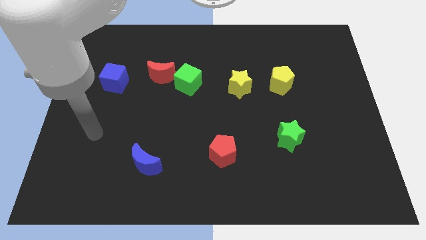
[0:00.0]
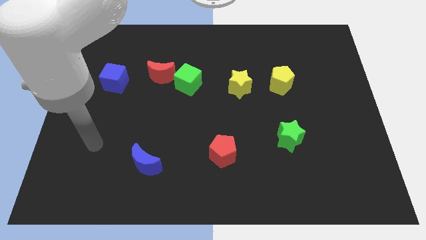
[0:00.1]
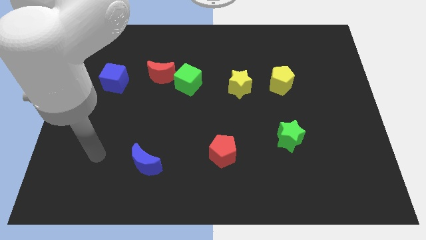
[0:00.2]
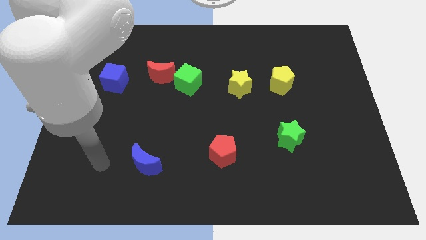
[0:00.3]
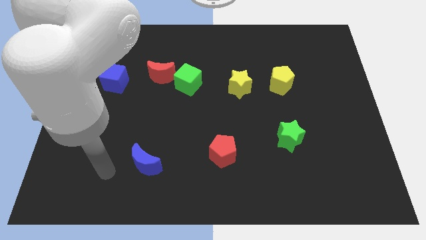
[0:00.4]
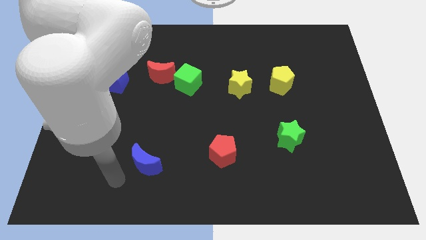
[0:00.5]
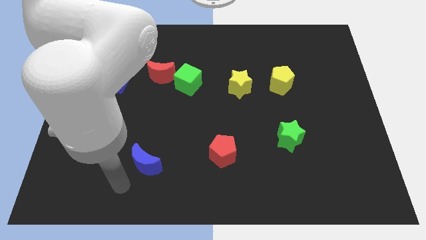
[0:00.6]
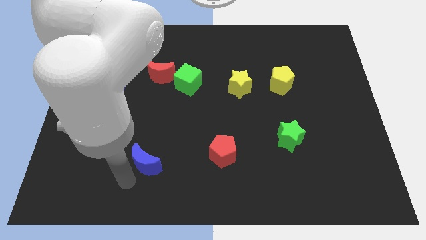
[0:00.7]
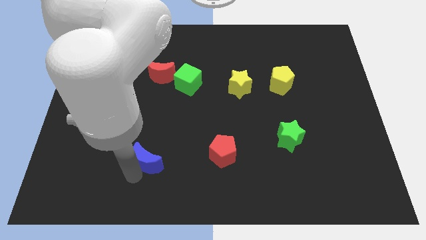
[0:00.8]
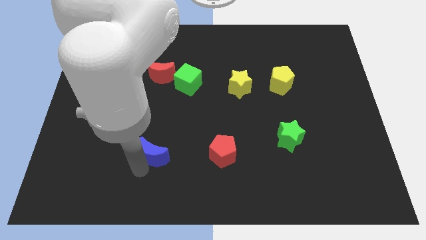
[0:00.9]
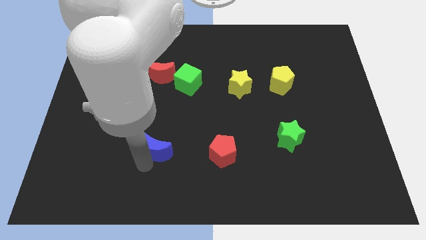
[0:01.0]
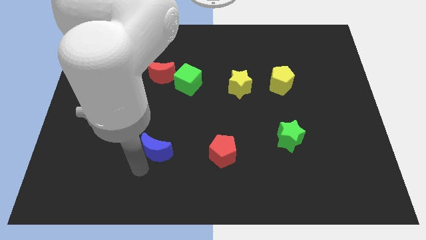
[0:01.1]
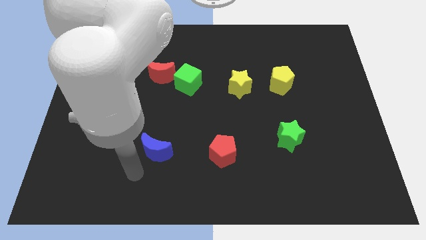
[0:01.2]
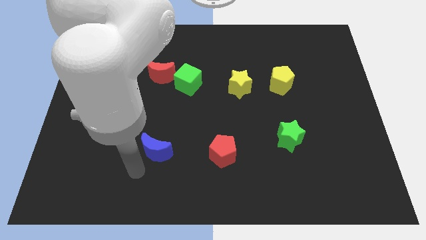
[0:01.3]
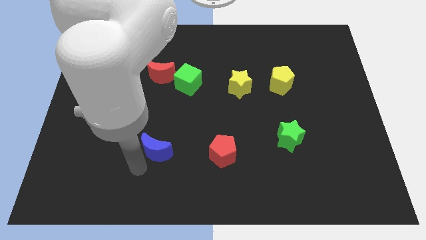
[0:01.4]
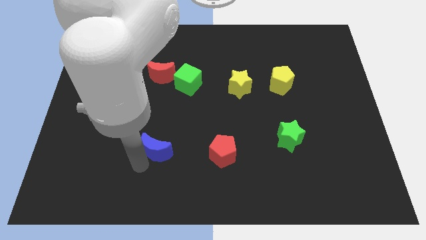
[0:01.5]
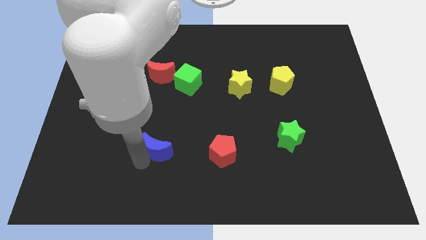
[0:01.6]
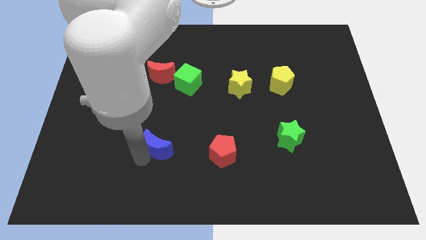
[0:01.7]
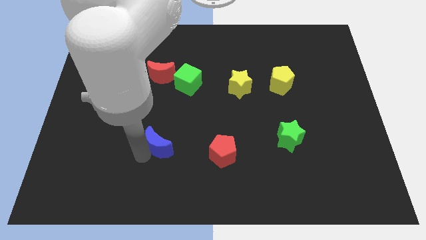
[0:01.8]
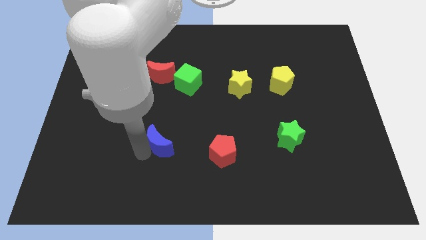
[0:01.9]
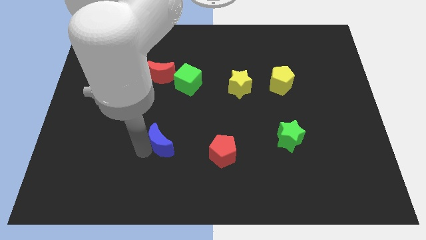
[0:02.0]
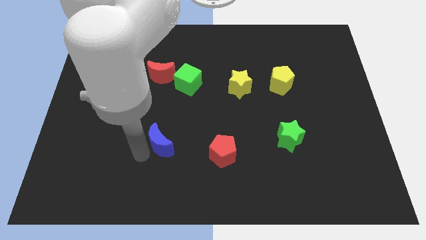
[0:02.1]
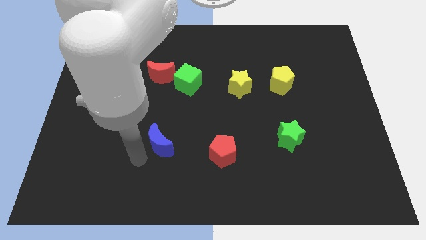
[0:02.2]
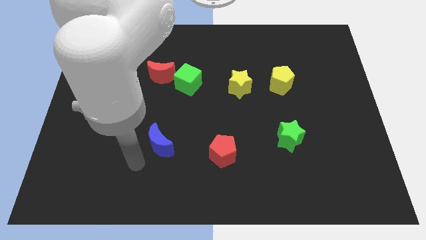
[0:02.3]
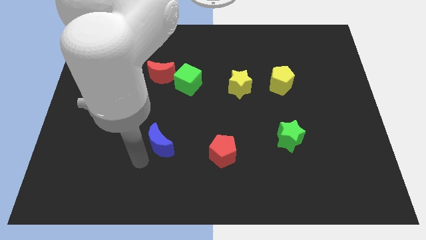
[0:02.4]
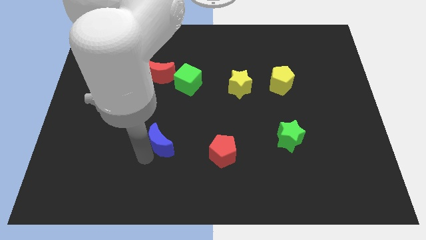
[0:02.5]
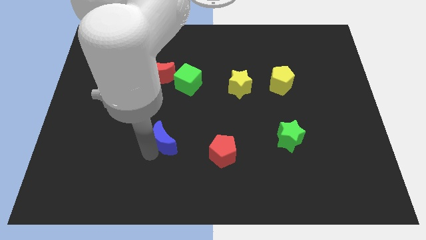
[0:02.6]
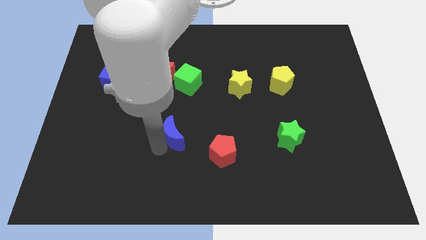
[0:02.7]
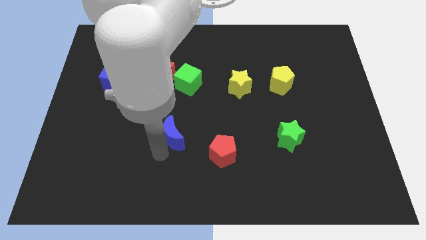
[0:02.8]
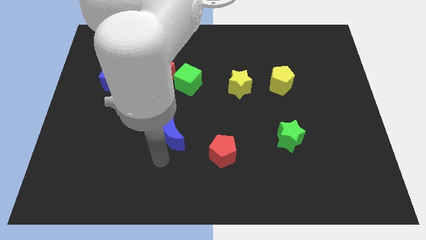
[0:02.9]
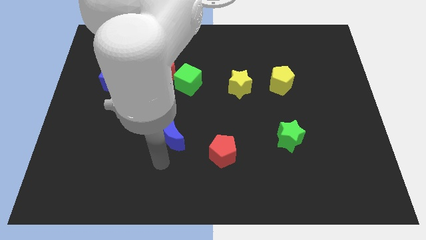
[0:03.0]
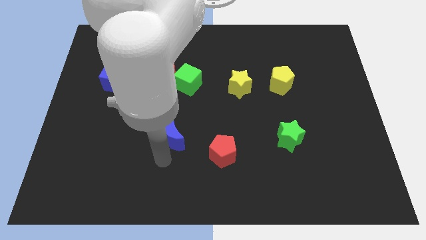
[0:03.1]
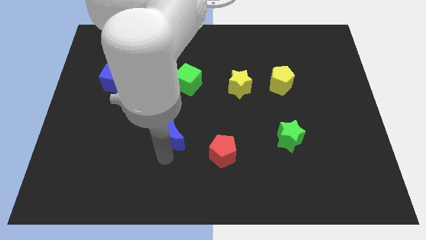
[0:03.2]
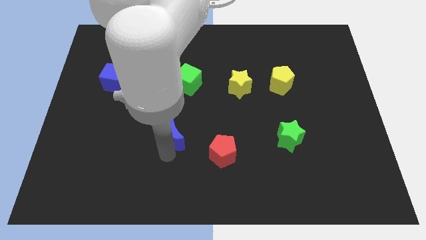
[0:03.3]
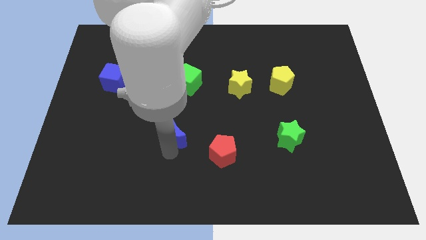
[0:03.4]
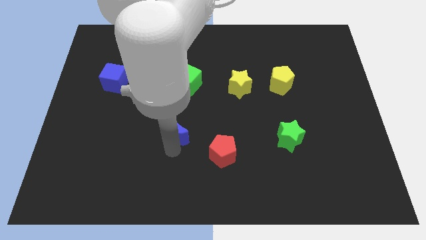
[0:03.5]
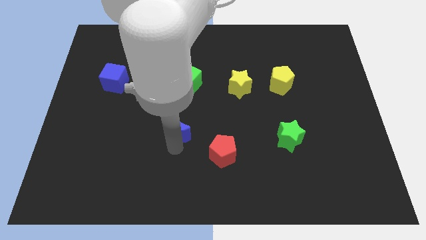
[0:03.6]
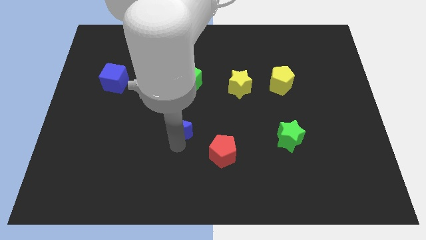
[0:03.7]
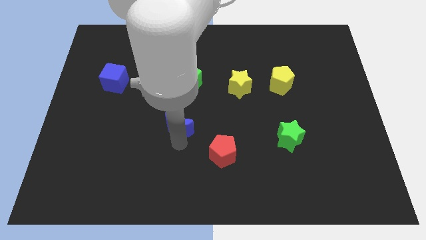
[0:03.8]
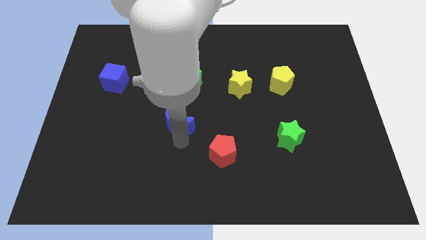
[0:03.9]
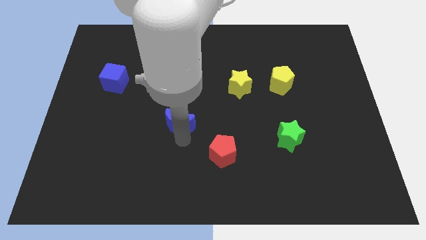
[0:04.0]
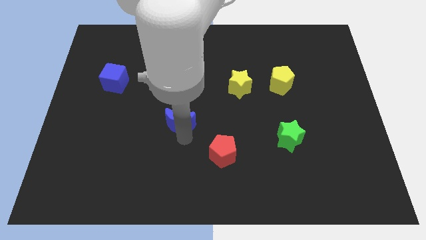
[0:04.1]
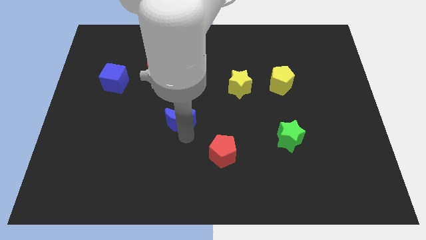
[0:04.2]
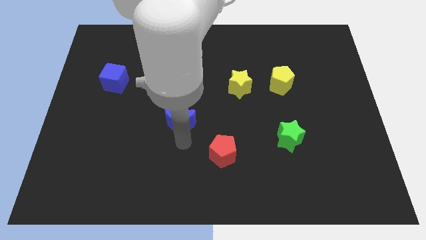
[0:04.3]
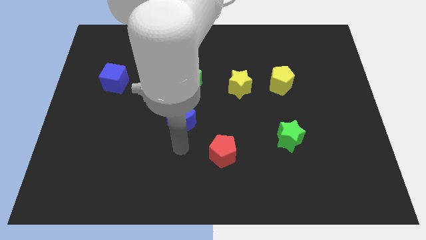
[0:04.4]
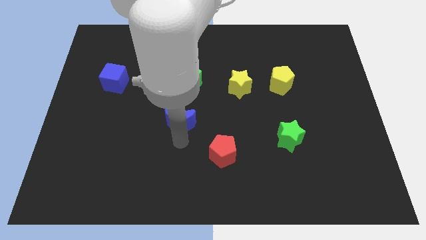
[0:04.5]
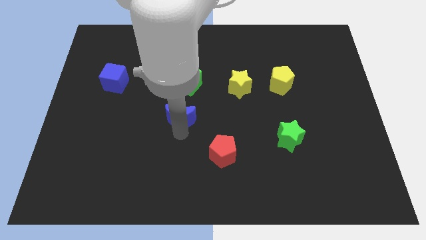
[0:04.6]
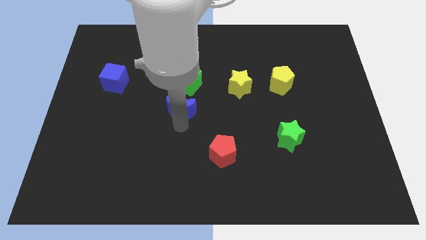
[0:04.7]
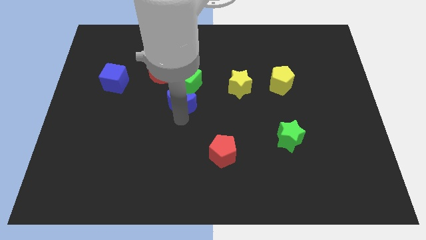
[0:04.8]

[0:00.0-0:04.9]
put the blue moon diagonally down and to the right of the red moon

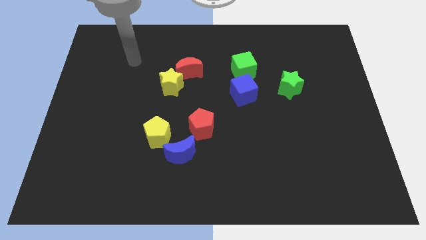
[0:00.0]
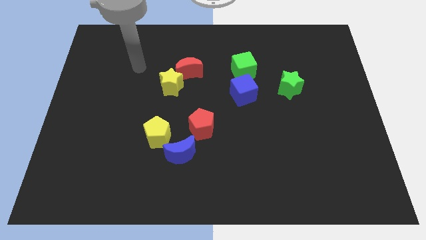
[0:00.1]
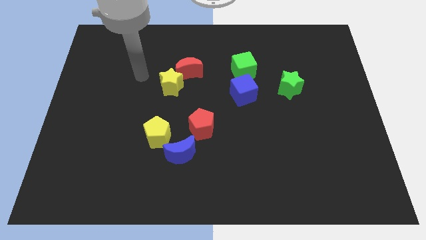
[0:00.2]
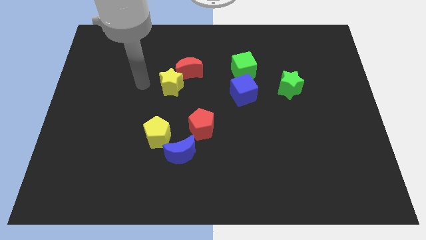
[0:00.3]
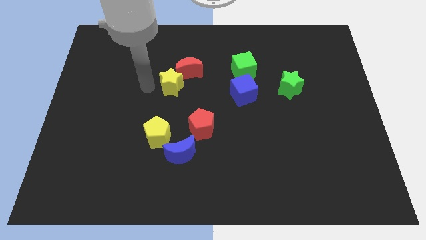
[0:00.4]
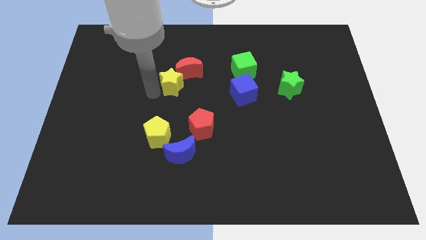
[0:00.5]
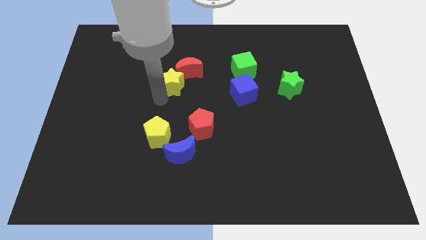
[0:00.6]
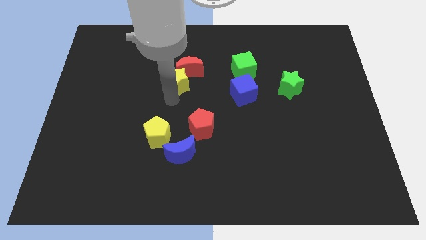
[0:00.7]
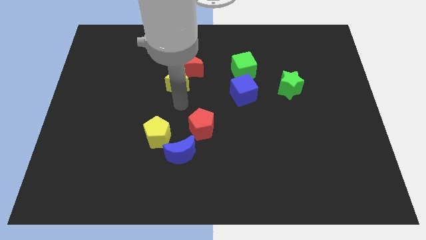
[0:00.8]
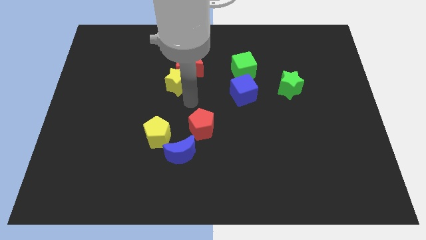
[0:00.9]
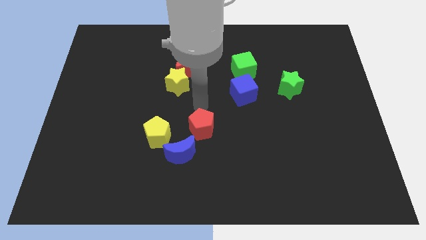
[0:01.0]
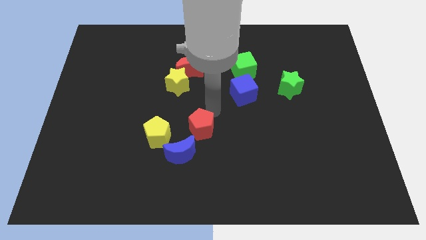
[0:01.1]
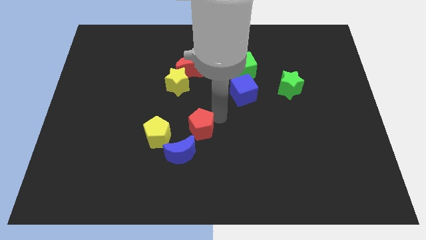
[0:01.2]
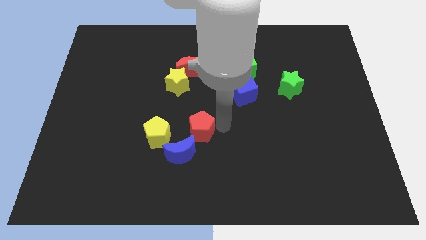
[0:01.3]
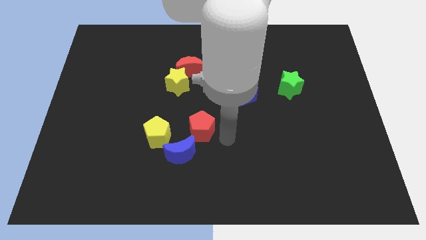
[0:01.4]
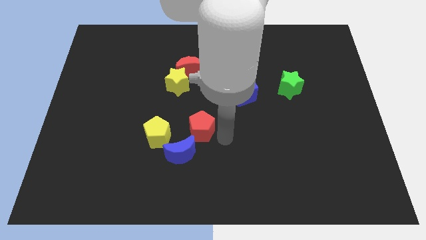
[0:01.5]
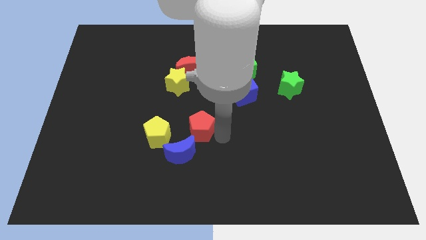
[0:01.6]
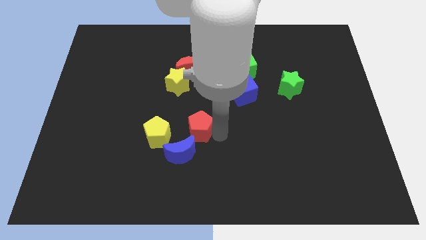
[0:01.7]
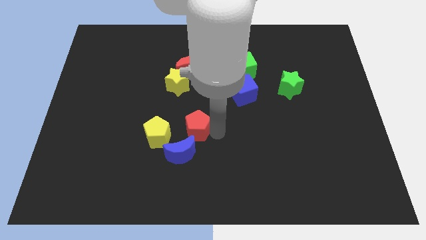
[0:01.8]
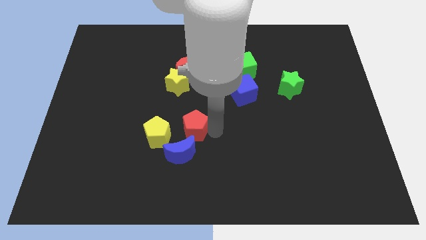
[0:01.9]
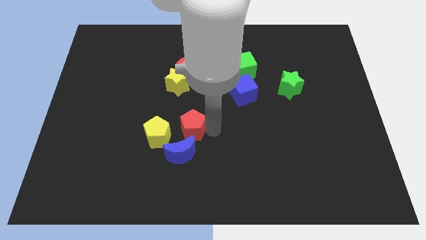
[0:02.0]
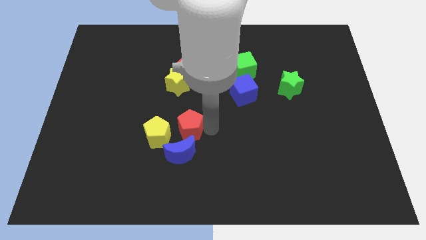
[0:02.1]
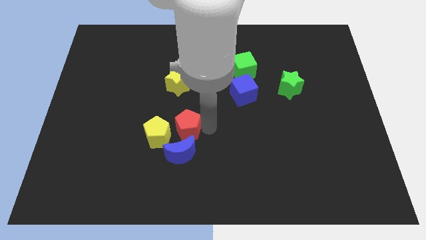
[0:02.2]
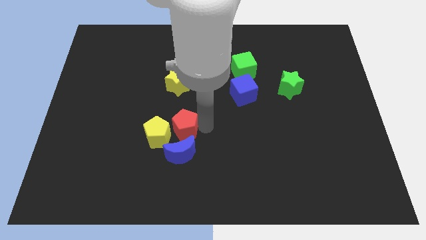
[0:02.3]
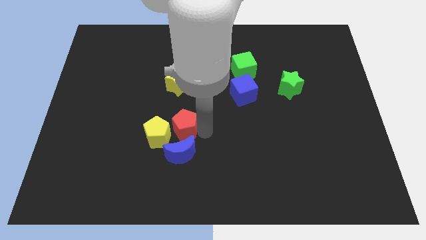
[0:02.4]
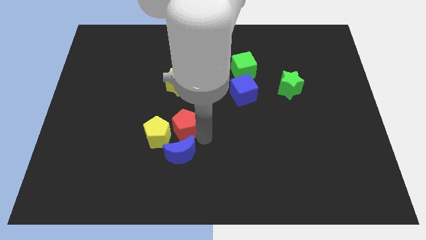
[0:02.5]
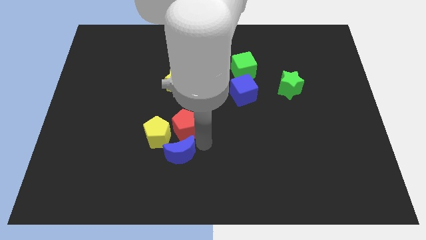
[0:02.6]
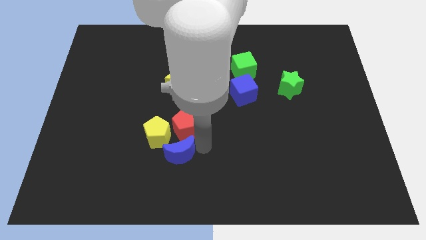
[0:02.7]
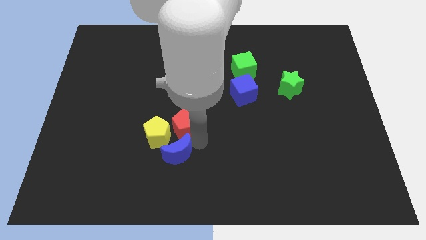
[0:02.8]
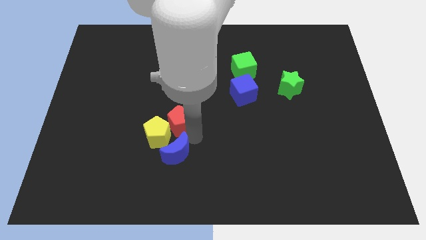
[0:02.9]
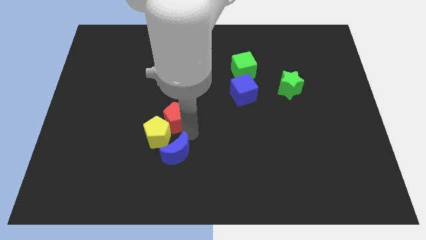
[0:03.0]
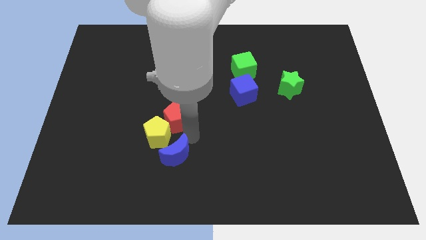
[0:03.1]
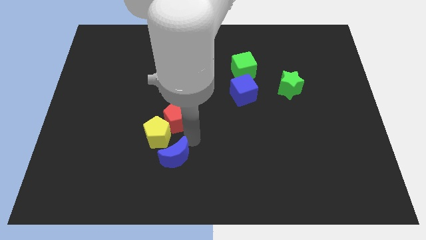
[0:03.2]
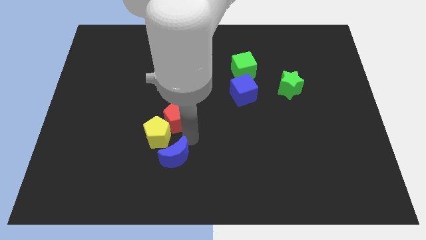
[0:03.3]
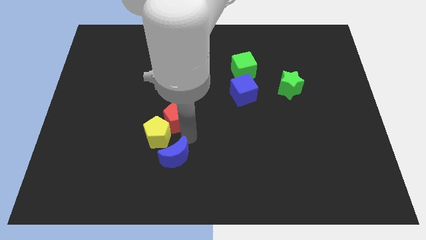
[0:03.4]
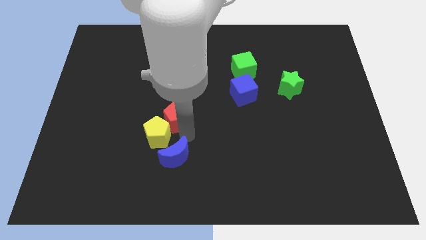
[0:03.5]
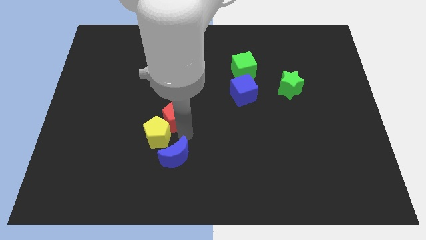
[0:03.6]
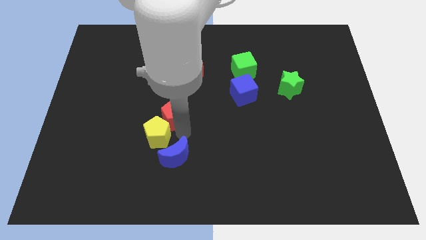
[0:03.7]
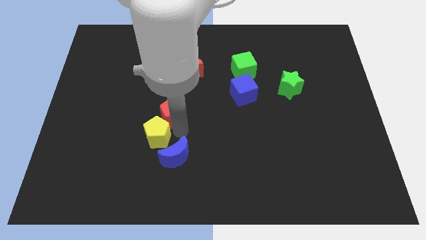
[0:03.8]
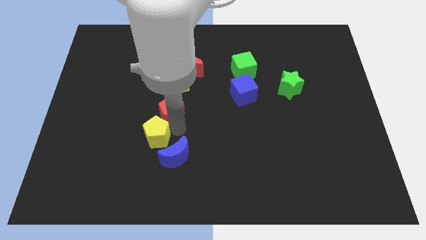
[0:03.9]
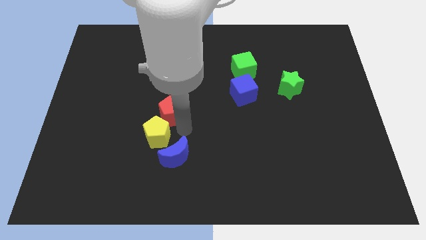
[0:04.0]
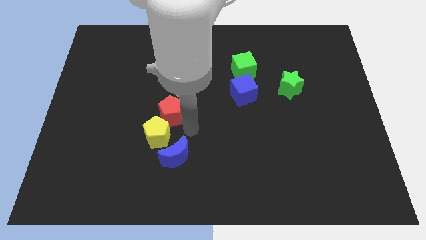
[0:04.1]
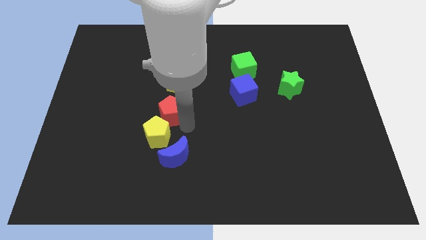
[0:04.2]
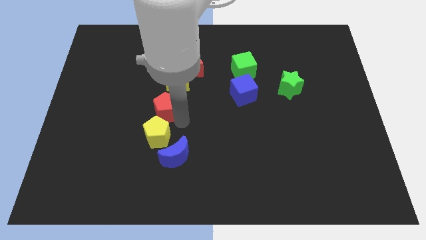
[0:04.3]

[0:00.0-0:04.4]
slide the red pentagon diagonally down and to the left of the yellow star
